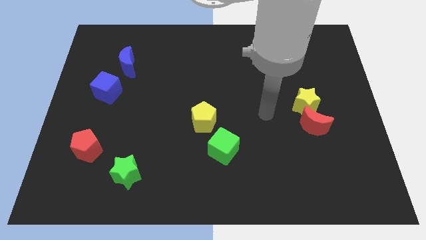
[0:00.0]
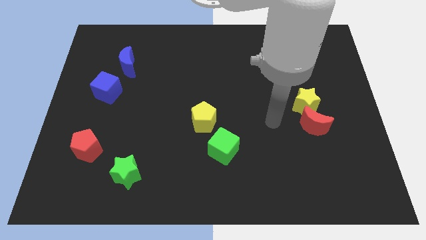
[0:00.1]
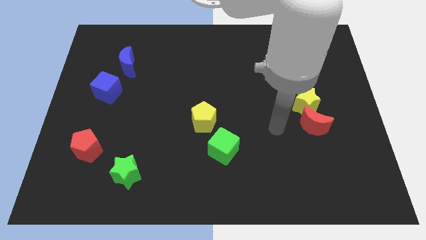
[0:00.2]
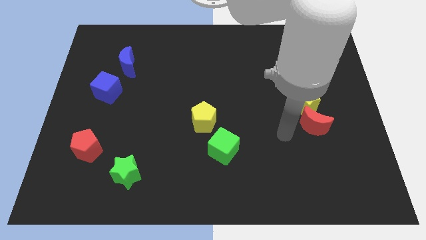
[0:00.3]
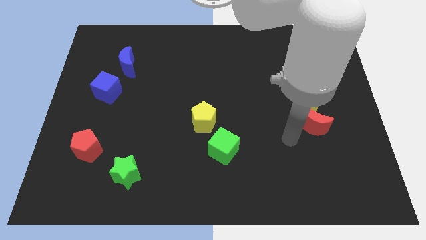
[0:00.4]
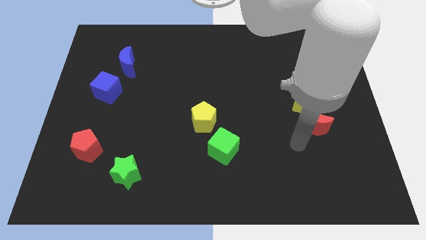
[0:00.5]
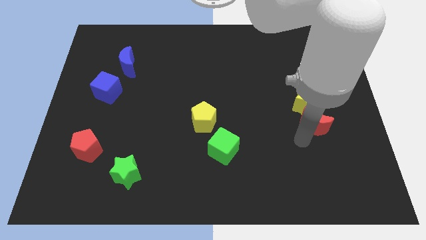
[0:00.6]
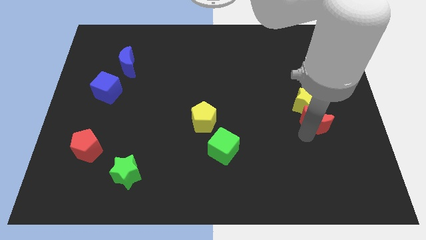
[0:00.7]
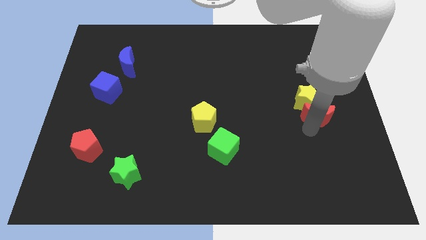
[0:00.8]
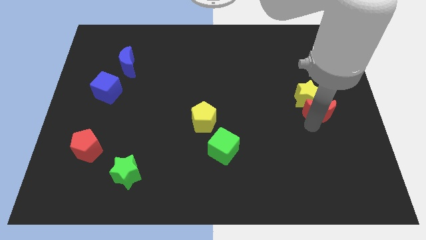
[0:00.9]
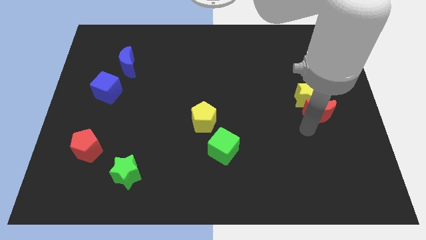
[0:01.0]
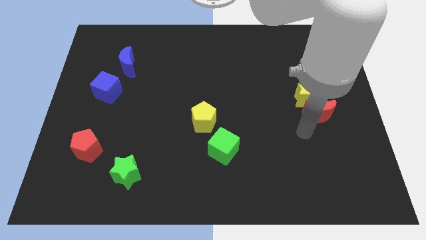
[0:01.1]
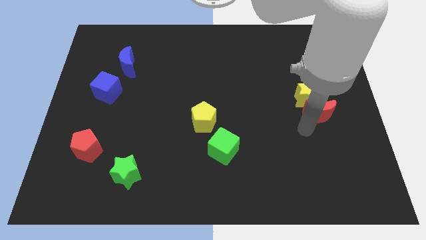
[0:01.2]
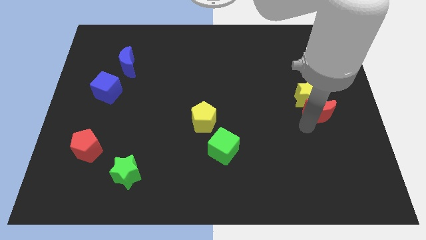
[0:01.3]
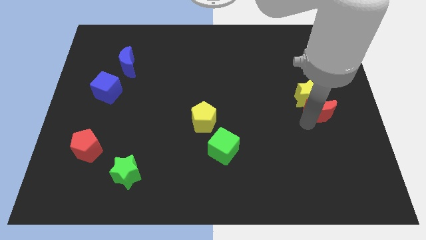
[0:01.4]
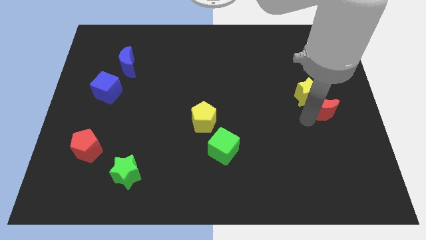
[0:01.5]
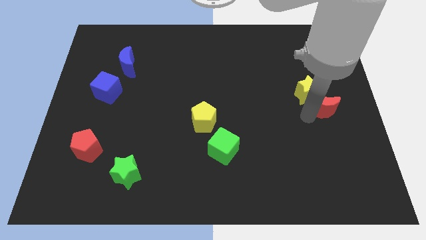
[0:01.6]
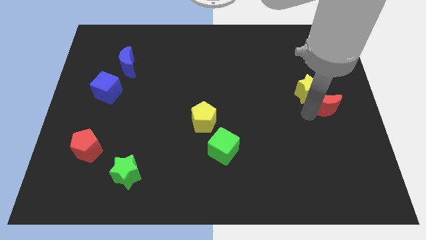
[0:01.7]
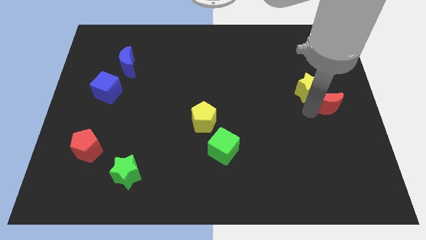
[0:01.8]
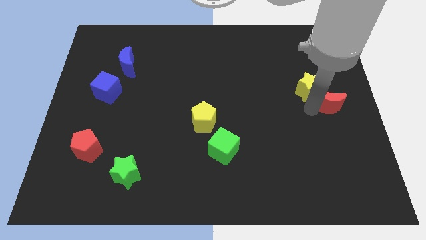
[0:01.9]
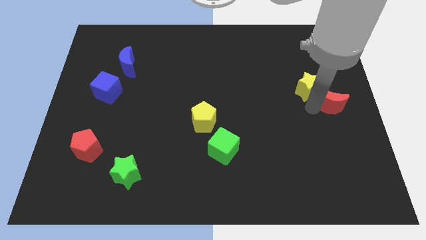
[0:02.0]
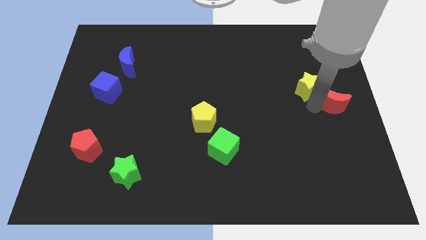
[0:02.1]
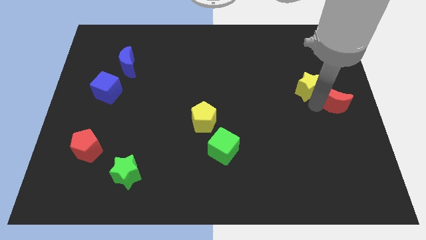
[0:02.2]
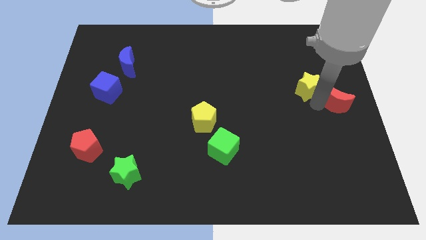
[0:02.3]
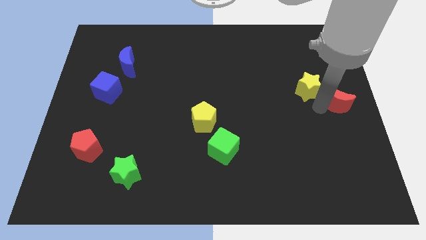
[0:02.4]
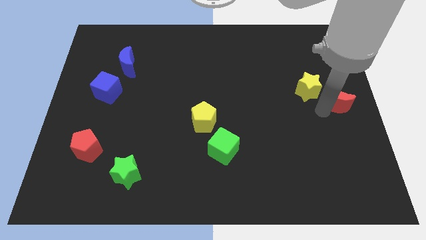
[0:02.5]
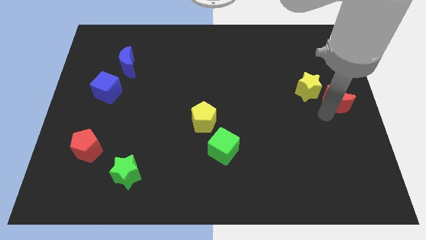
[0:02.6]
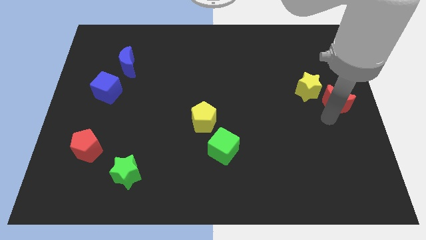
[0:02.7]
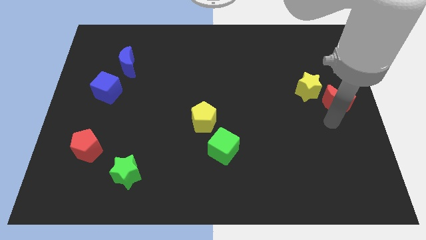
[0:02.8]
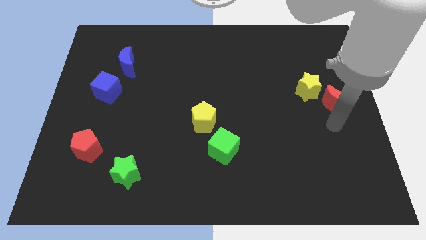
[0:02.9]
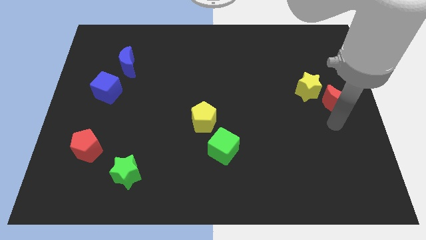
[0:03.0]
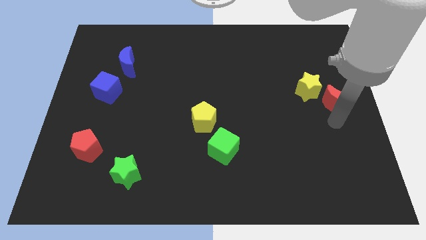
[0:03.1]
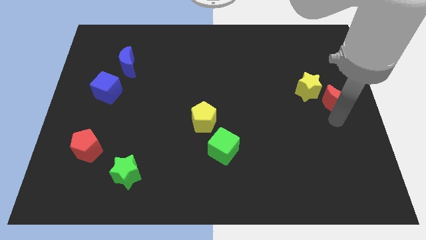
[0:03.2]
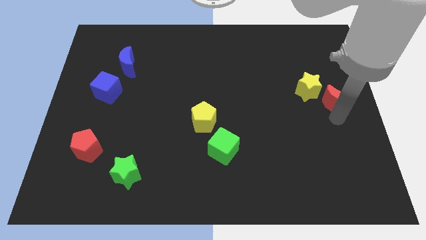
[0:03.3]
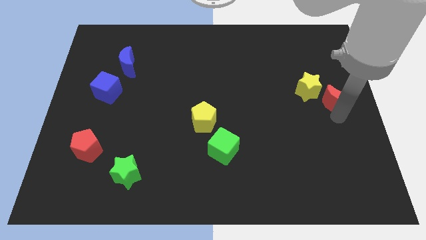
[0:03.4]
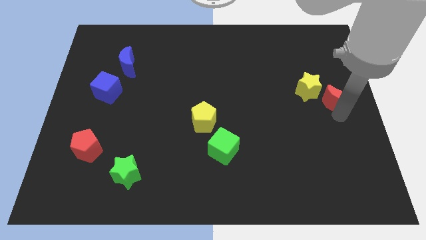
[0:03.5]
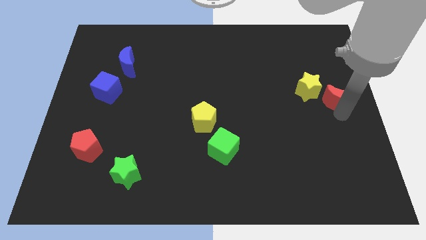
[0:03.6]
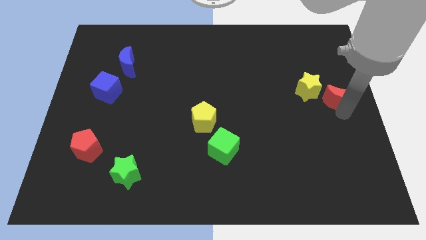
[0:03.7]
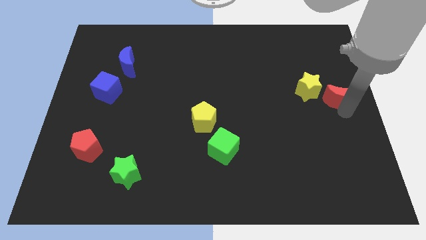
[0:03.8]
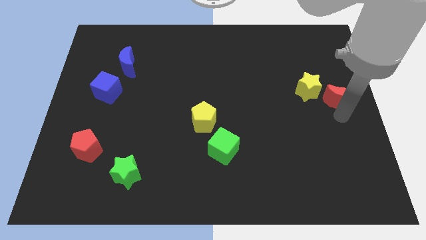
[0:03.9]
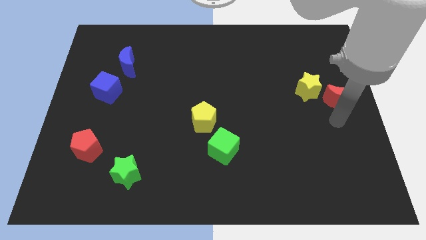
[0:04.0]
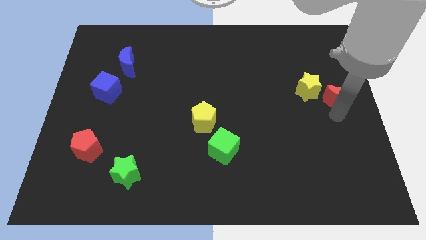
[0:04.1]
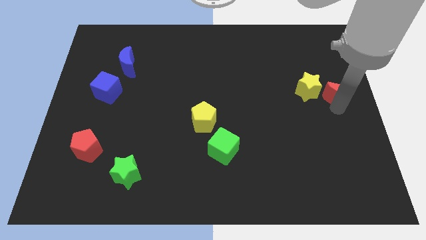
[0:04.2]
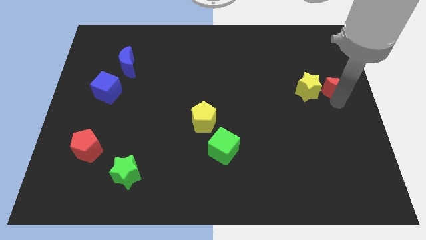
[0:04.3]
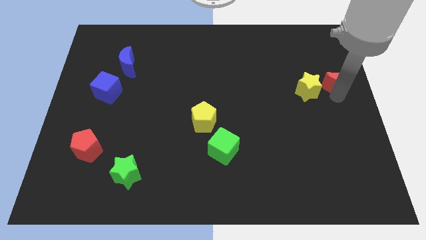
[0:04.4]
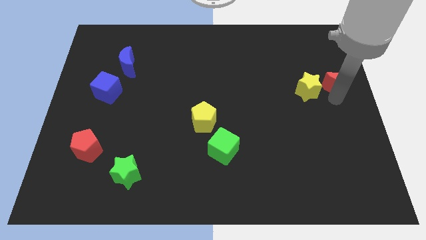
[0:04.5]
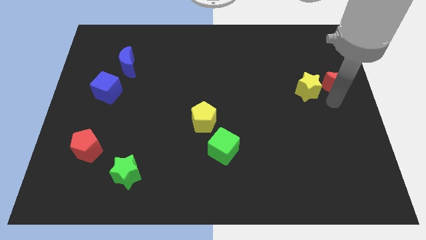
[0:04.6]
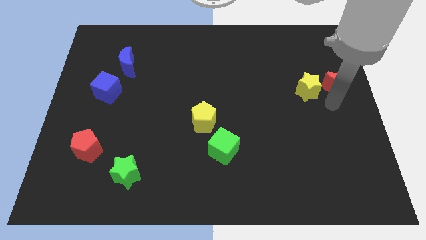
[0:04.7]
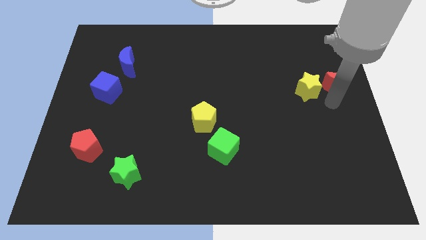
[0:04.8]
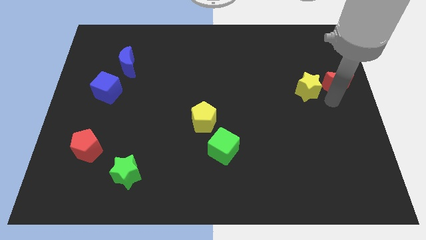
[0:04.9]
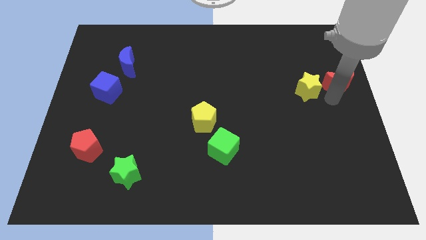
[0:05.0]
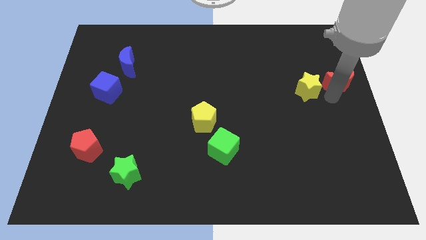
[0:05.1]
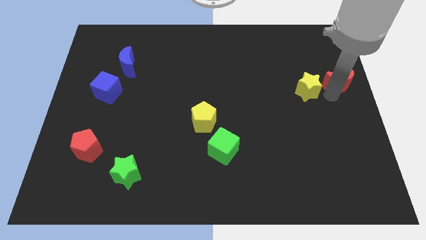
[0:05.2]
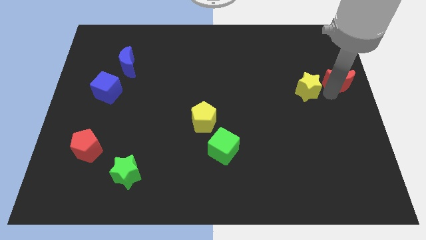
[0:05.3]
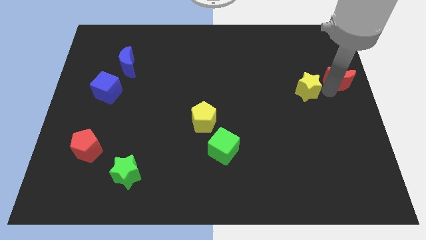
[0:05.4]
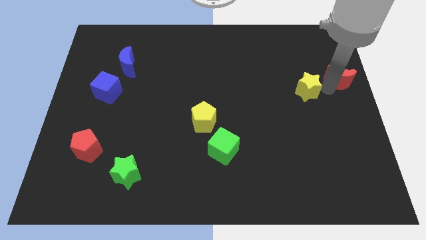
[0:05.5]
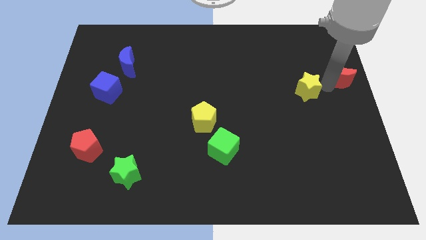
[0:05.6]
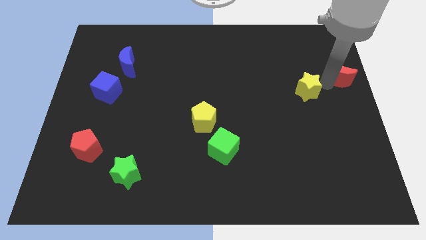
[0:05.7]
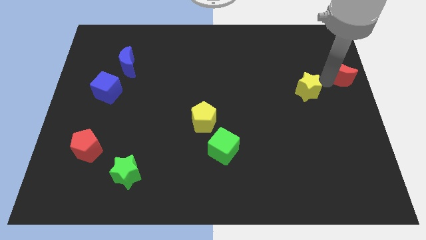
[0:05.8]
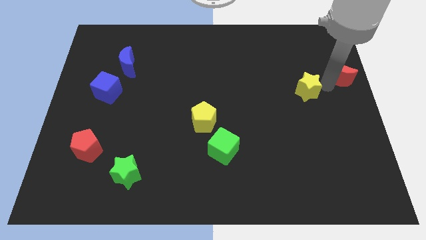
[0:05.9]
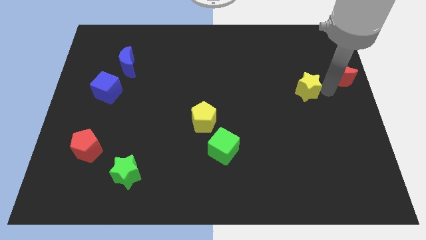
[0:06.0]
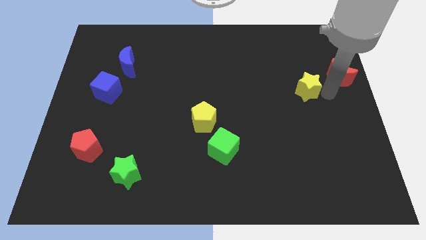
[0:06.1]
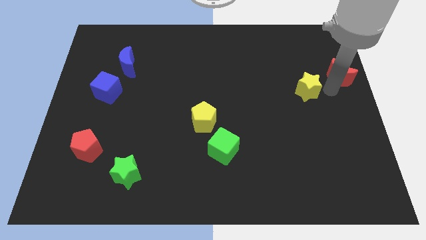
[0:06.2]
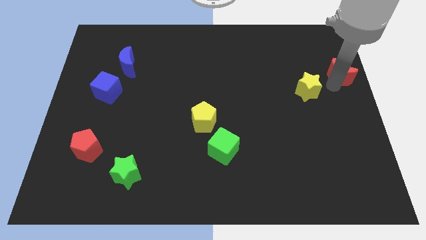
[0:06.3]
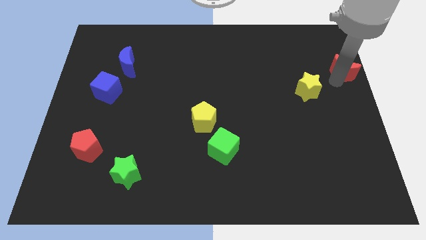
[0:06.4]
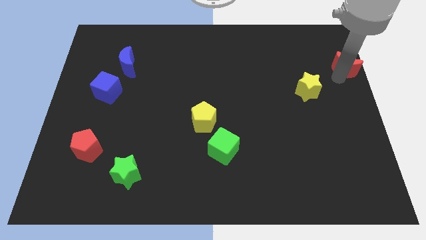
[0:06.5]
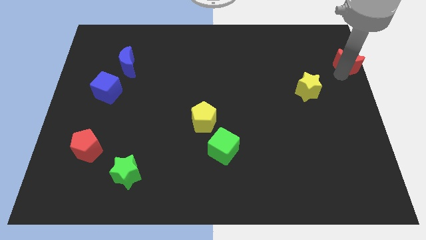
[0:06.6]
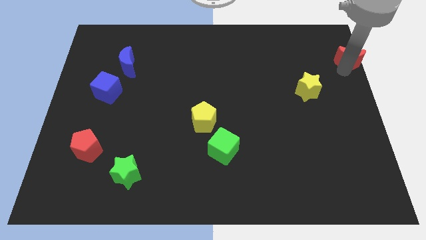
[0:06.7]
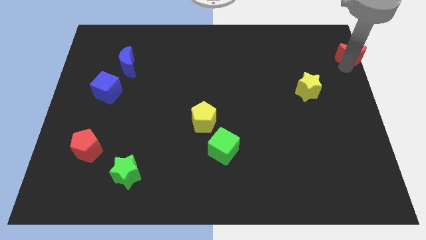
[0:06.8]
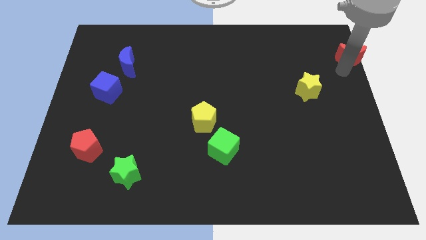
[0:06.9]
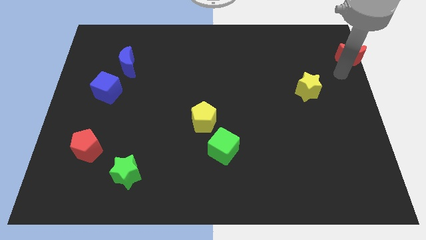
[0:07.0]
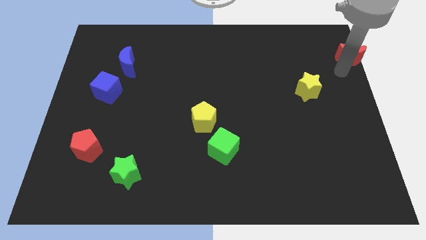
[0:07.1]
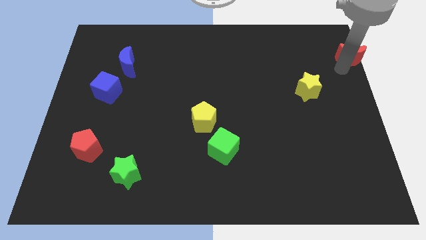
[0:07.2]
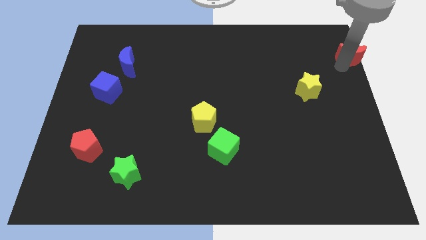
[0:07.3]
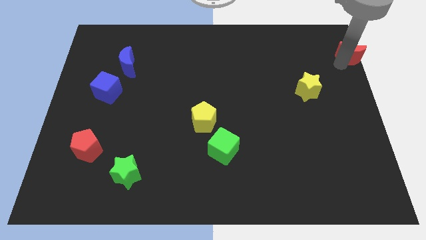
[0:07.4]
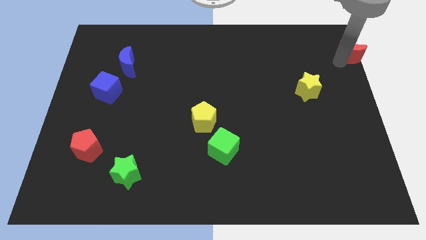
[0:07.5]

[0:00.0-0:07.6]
slide the red moon to the top right corner
